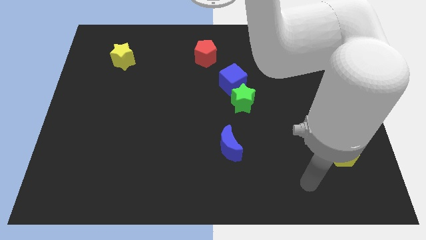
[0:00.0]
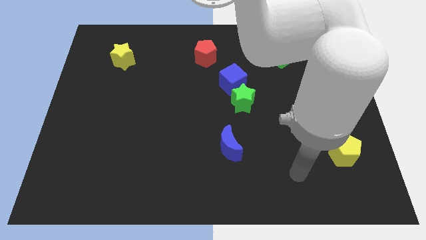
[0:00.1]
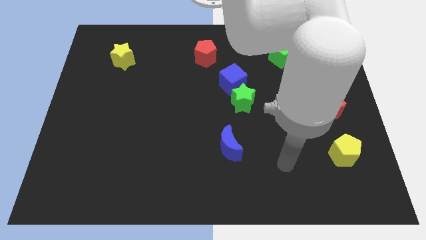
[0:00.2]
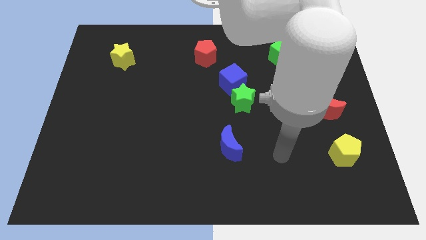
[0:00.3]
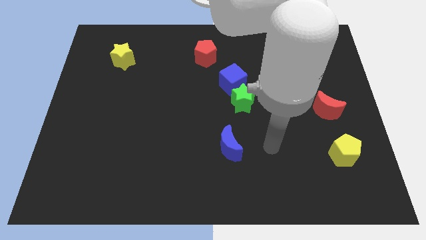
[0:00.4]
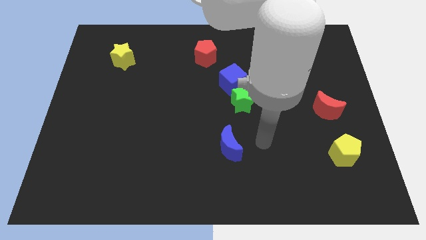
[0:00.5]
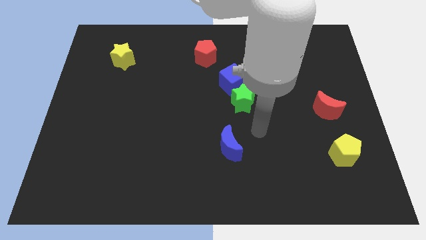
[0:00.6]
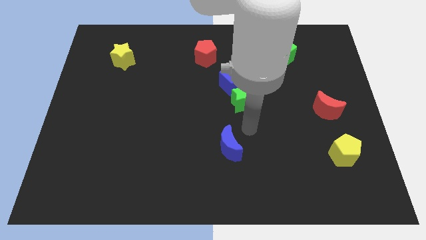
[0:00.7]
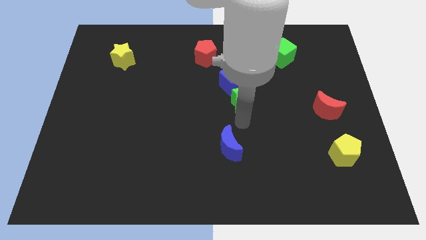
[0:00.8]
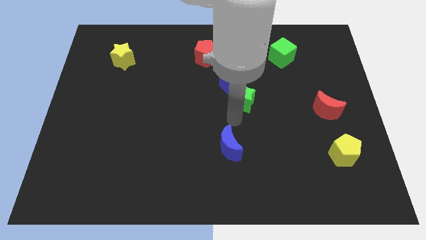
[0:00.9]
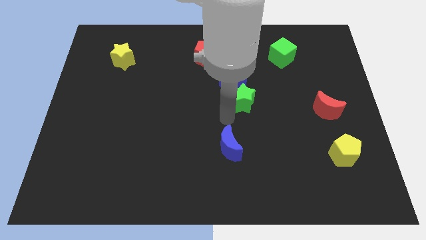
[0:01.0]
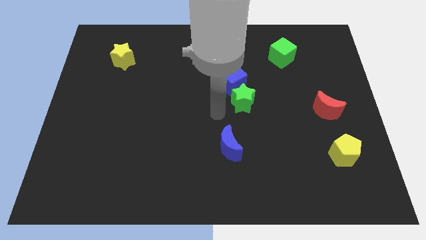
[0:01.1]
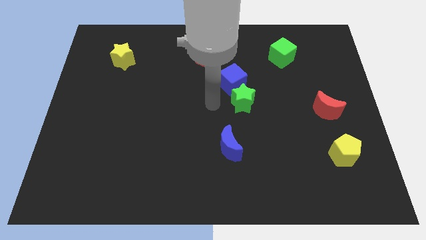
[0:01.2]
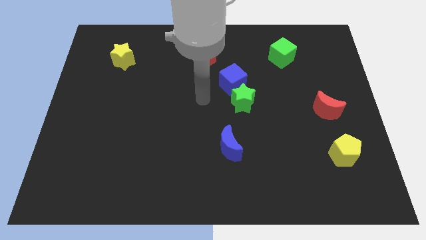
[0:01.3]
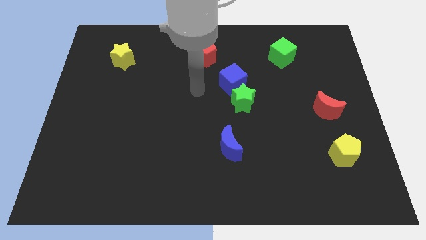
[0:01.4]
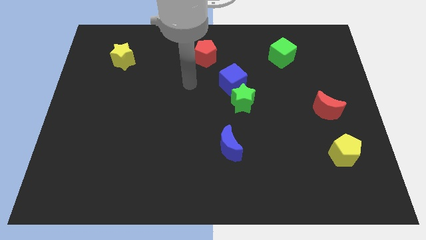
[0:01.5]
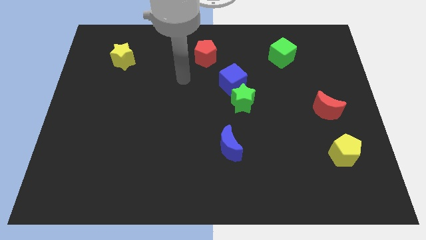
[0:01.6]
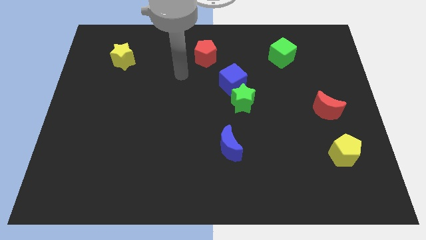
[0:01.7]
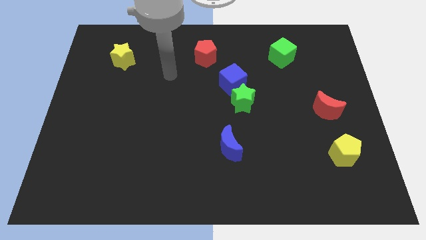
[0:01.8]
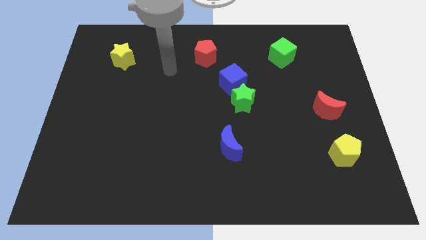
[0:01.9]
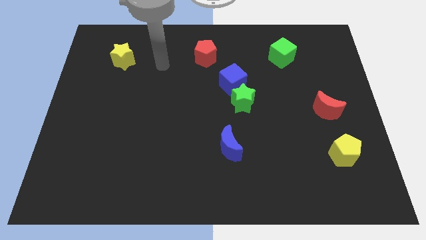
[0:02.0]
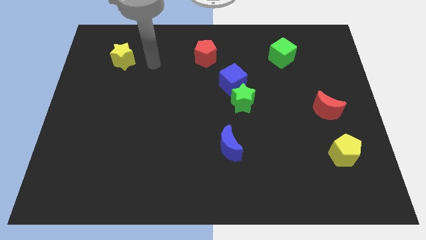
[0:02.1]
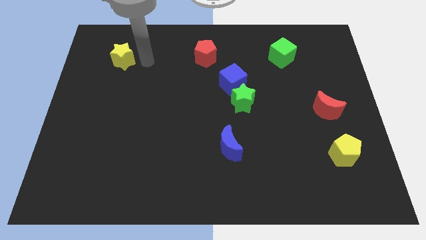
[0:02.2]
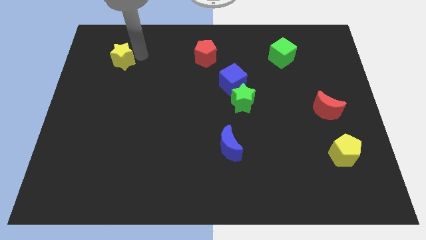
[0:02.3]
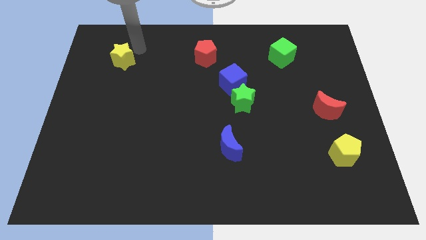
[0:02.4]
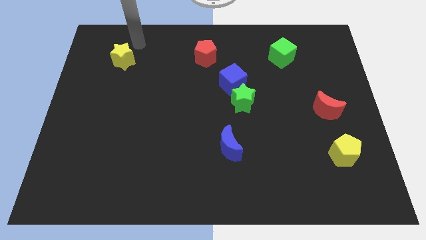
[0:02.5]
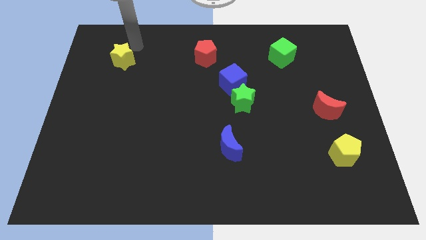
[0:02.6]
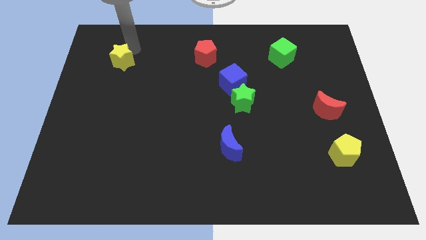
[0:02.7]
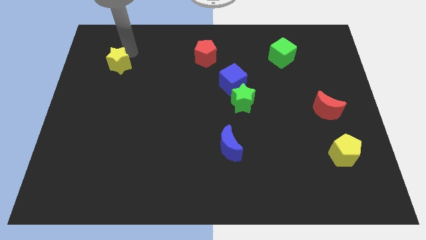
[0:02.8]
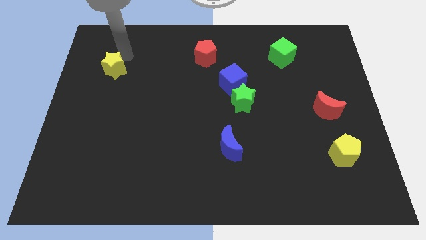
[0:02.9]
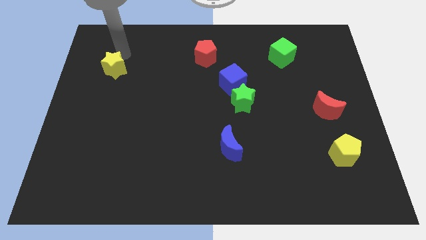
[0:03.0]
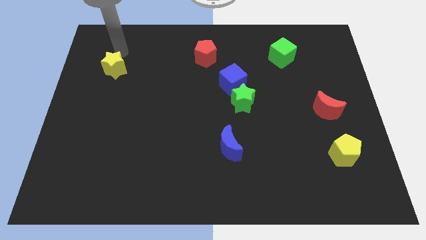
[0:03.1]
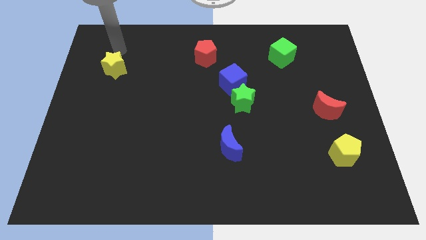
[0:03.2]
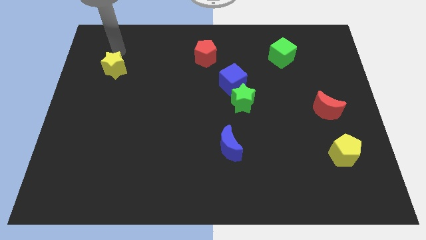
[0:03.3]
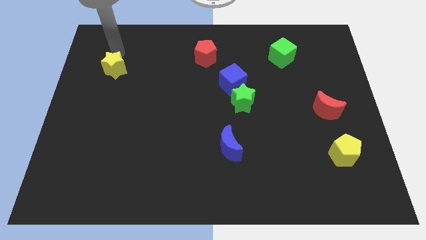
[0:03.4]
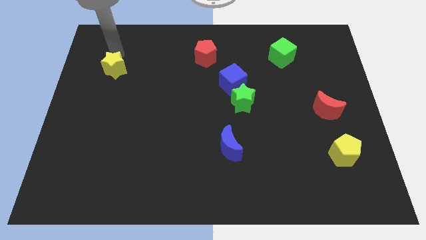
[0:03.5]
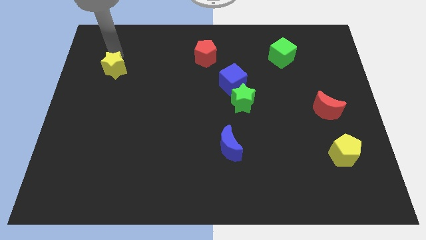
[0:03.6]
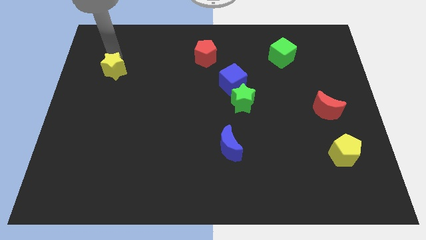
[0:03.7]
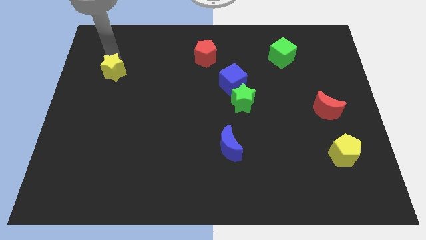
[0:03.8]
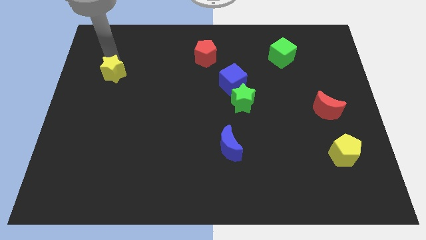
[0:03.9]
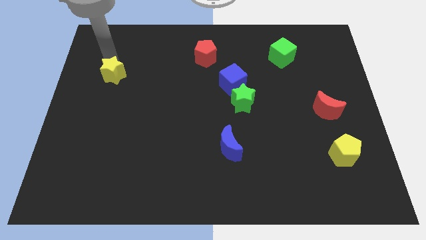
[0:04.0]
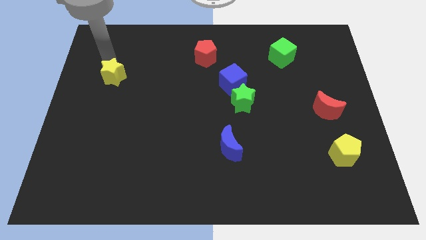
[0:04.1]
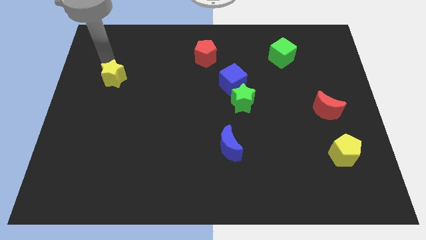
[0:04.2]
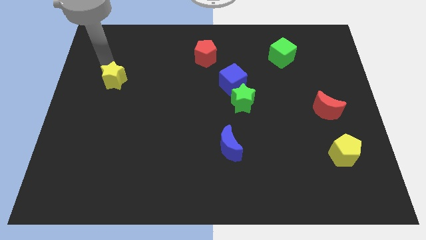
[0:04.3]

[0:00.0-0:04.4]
slightly slide the yellow star down

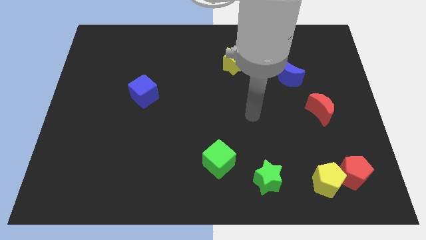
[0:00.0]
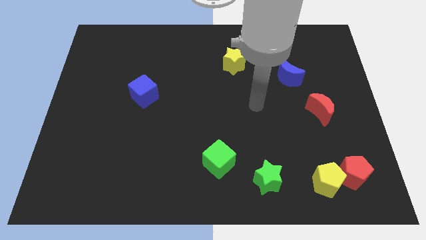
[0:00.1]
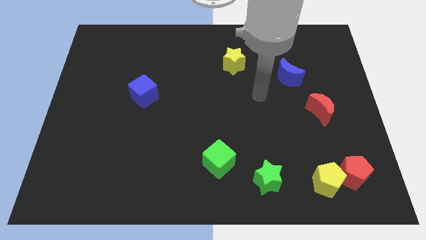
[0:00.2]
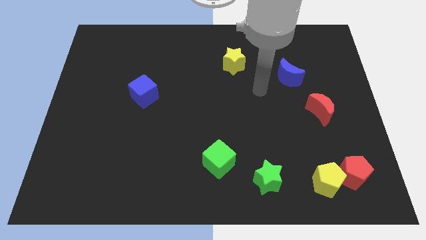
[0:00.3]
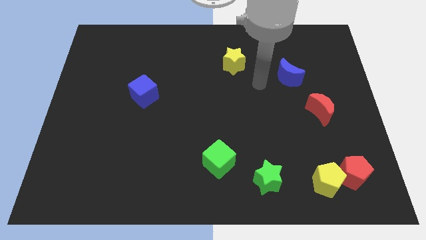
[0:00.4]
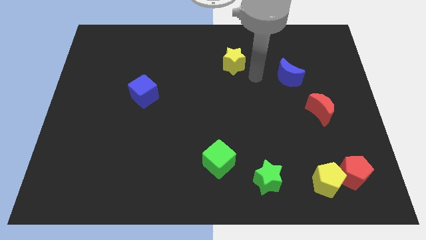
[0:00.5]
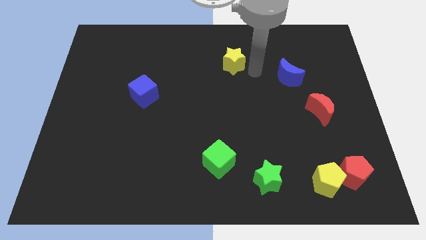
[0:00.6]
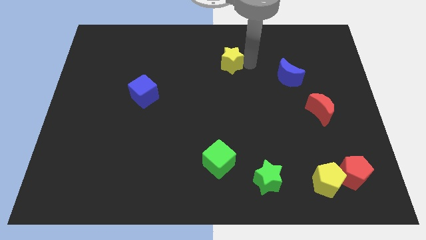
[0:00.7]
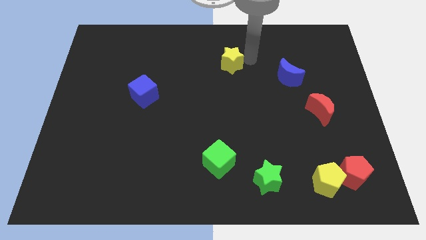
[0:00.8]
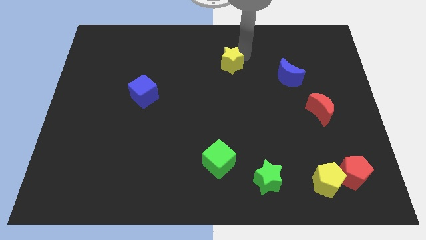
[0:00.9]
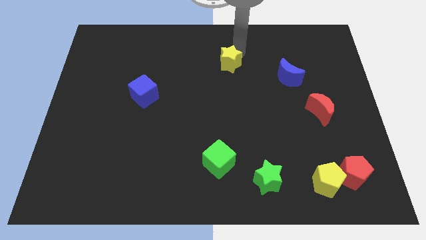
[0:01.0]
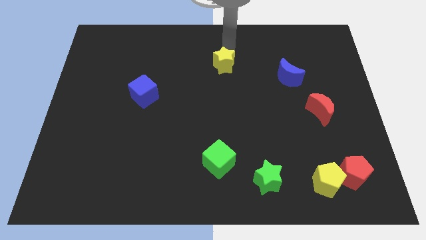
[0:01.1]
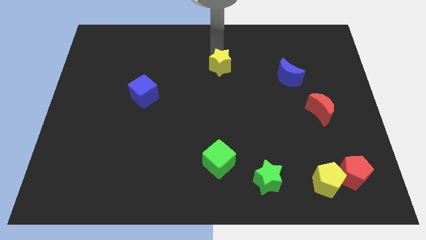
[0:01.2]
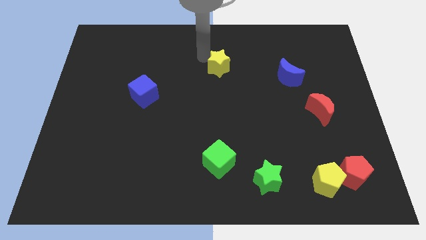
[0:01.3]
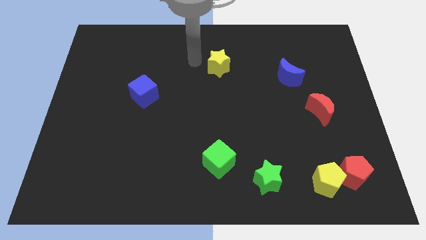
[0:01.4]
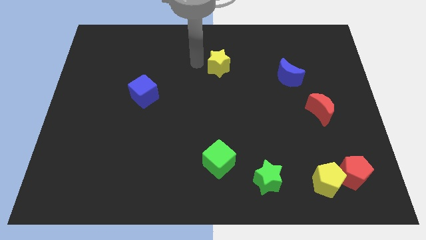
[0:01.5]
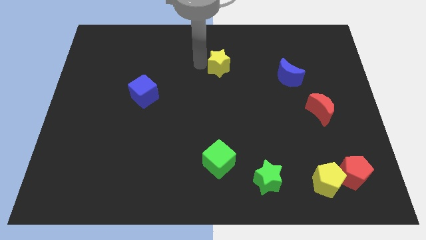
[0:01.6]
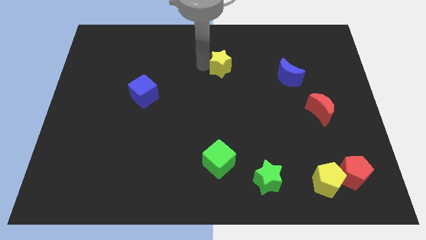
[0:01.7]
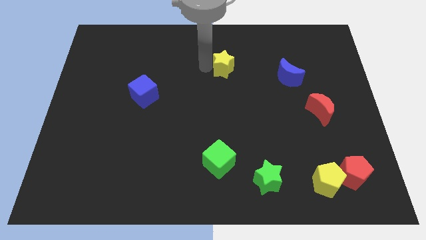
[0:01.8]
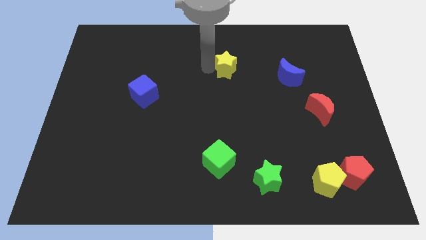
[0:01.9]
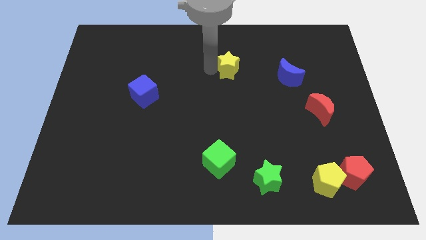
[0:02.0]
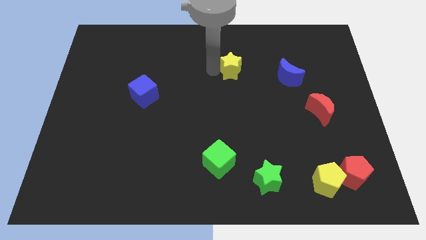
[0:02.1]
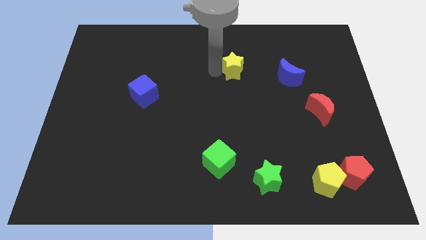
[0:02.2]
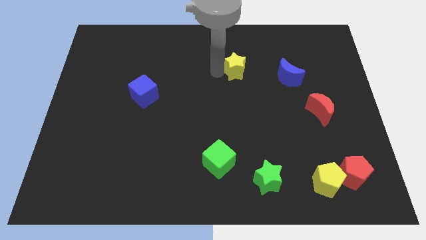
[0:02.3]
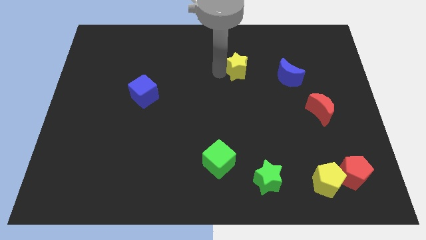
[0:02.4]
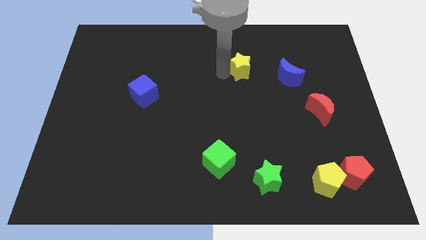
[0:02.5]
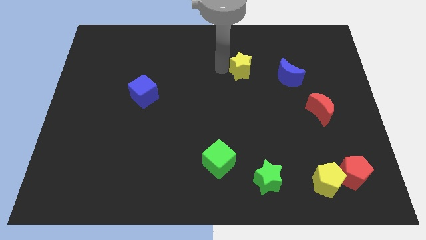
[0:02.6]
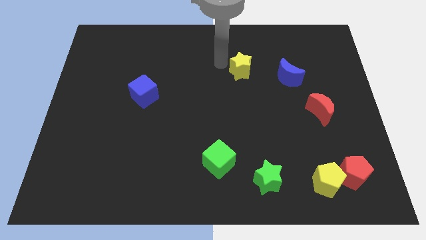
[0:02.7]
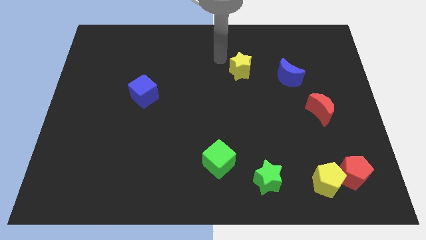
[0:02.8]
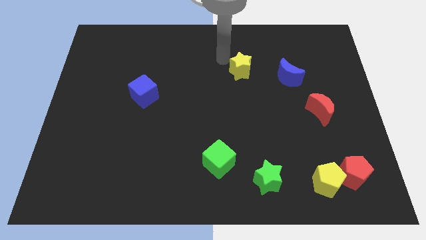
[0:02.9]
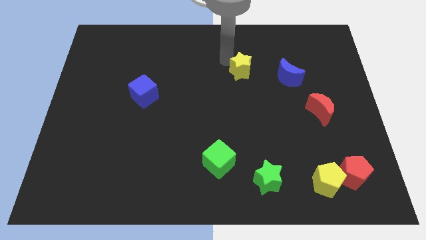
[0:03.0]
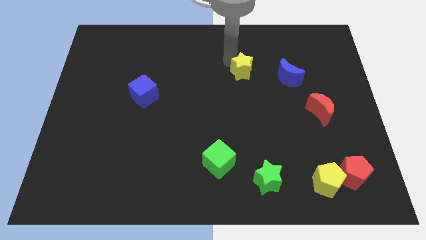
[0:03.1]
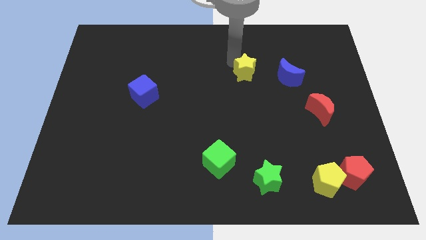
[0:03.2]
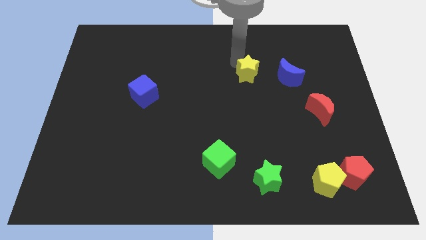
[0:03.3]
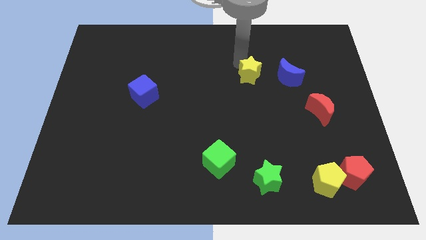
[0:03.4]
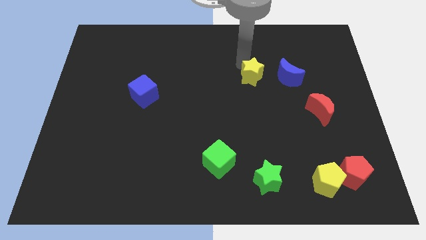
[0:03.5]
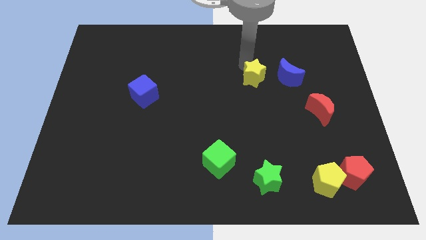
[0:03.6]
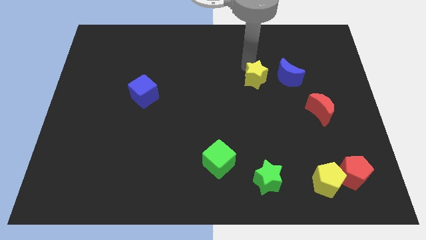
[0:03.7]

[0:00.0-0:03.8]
slightly move the yellow star down and right diagonally
